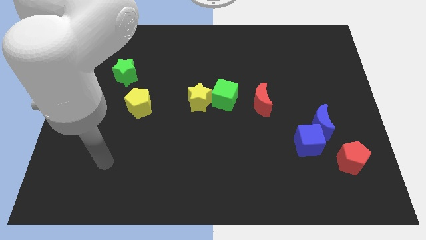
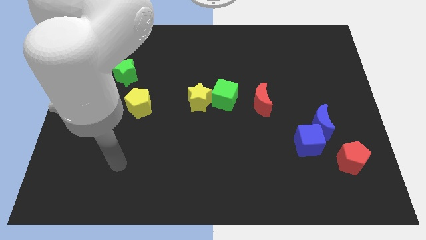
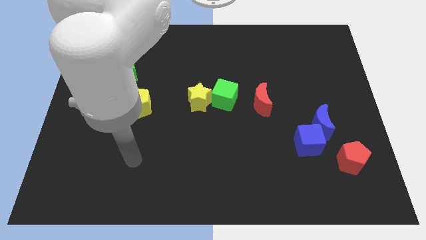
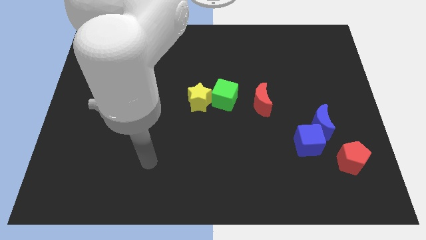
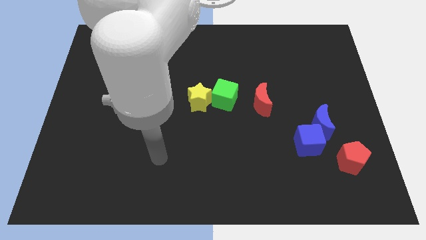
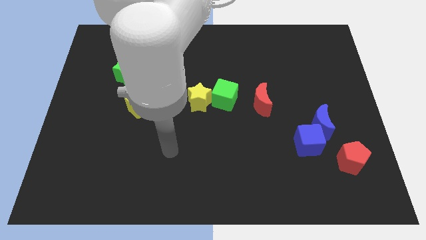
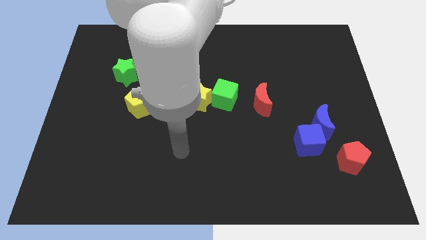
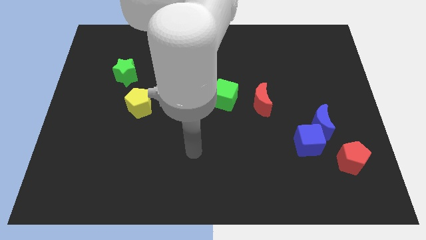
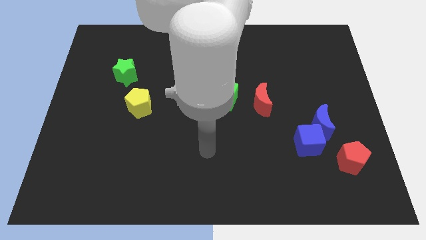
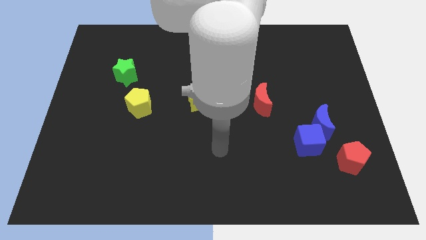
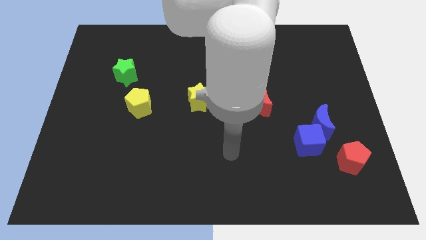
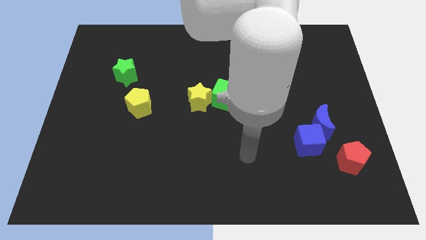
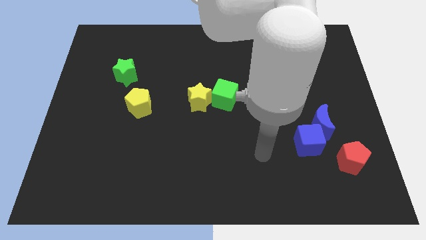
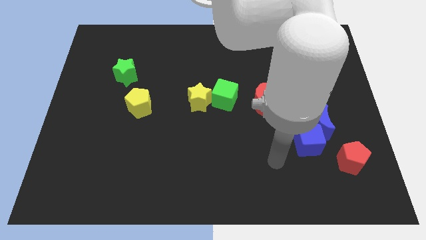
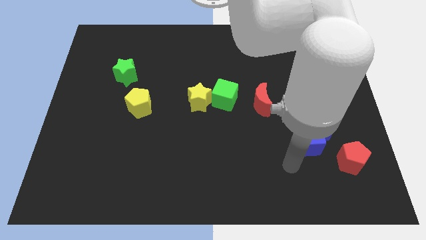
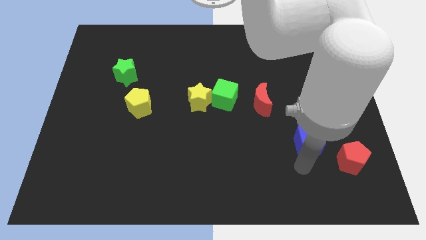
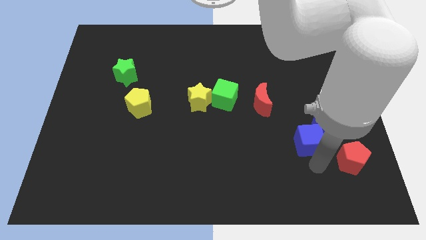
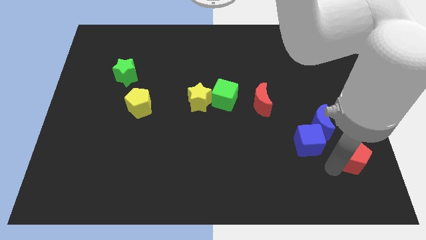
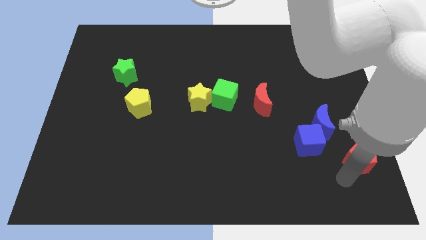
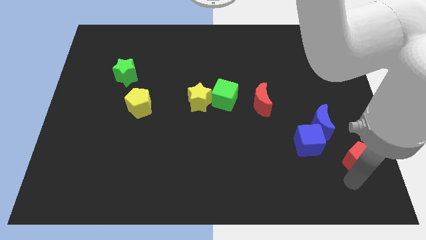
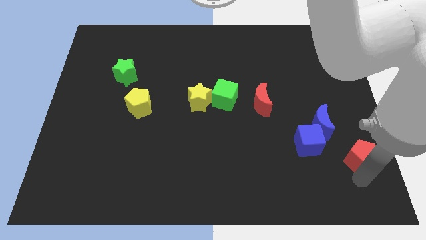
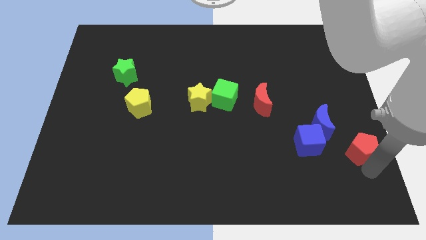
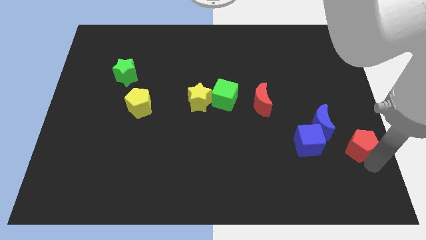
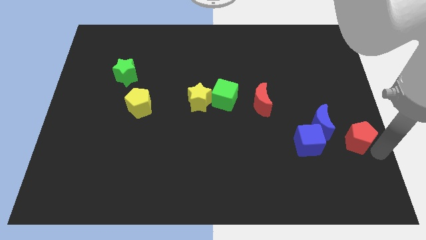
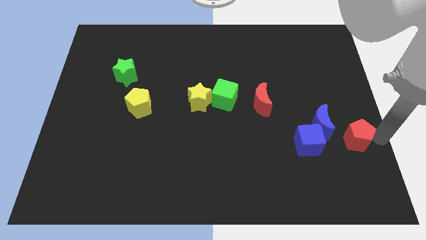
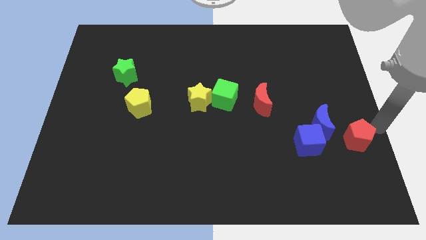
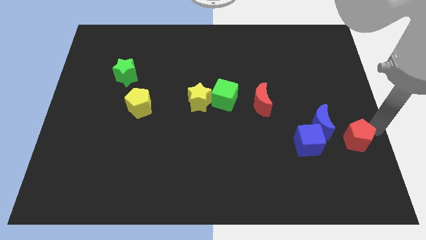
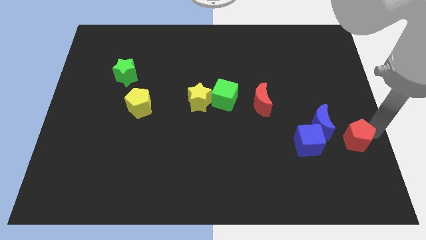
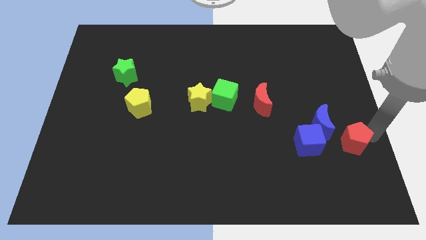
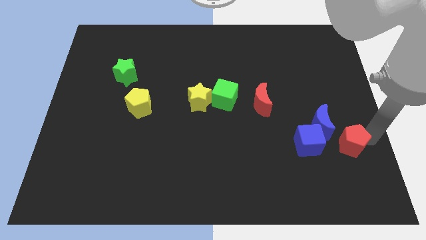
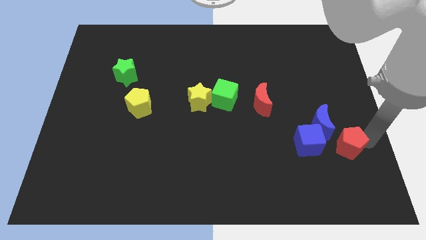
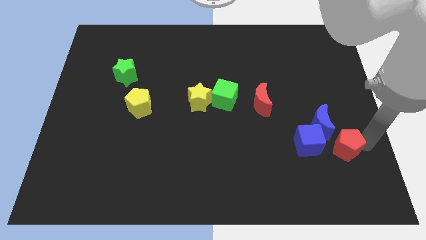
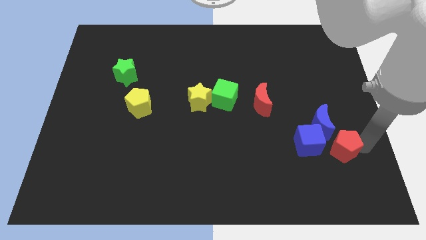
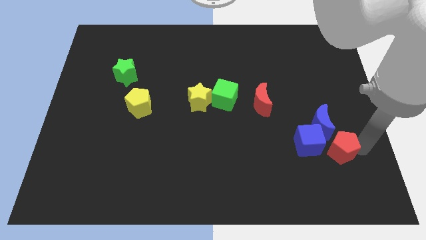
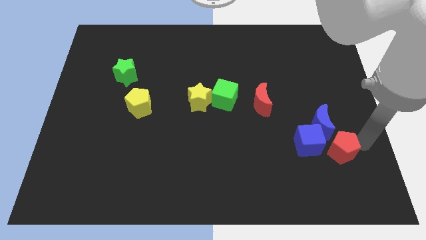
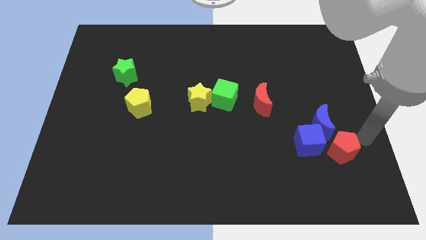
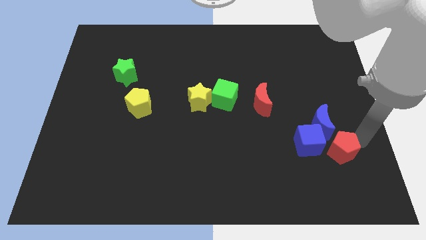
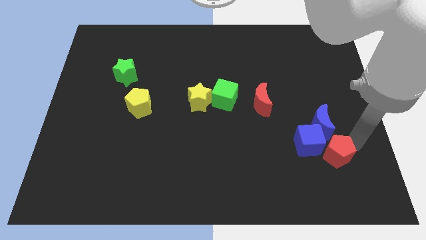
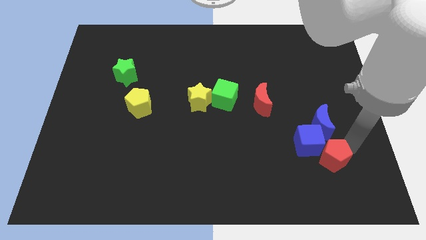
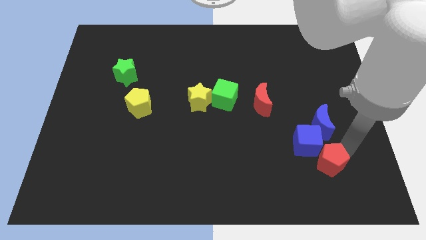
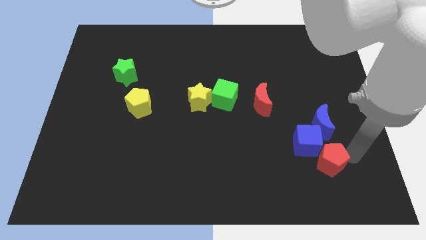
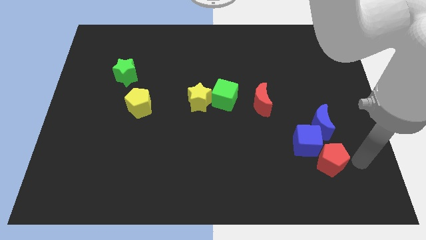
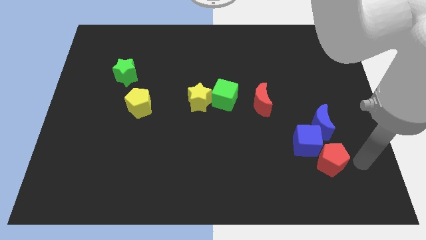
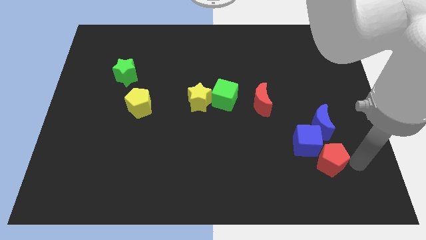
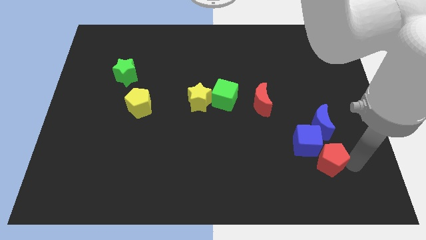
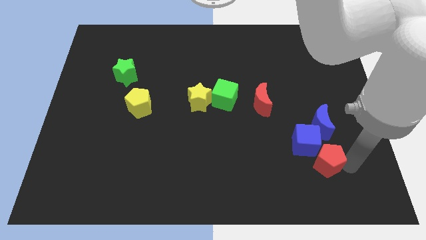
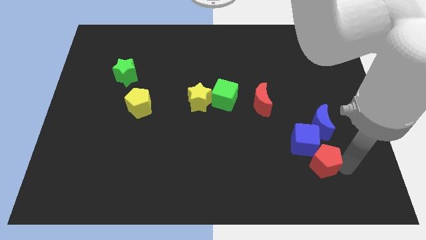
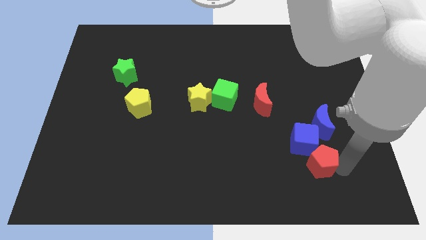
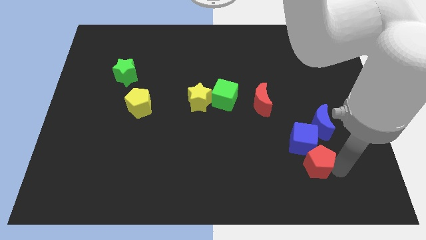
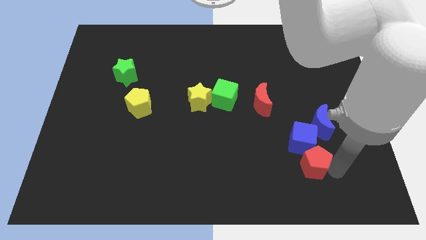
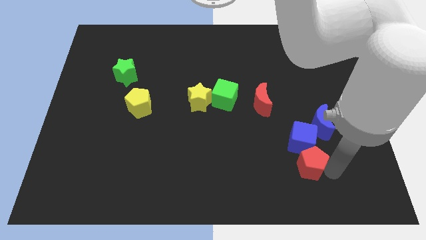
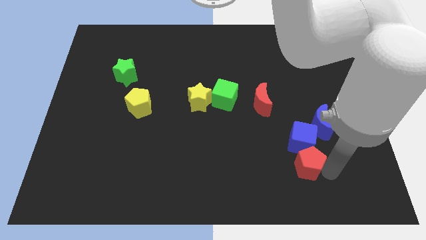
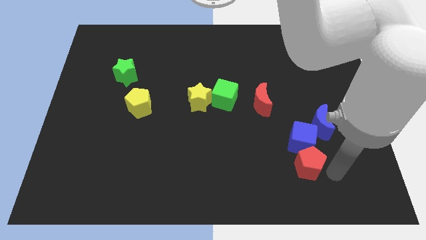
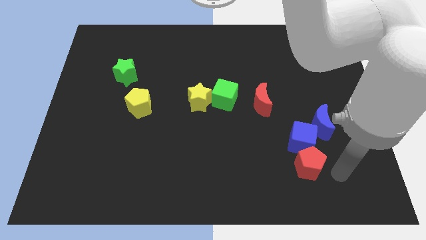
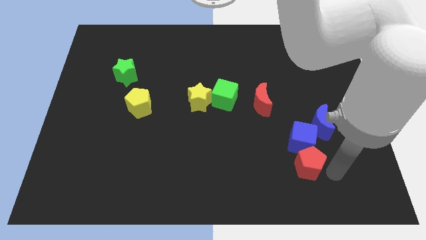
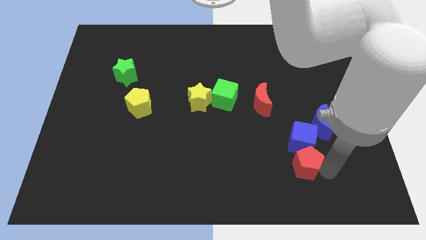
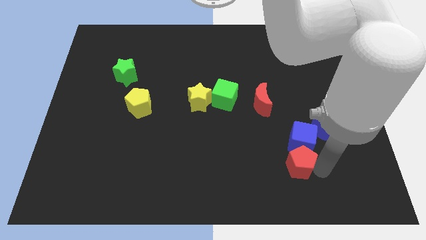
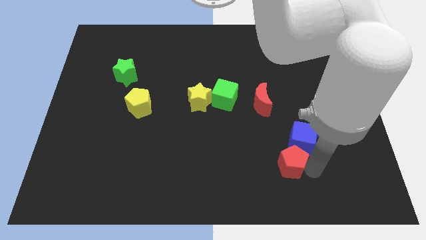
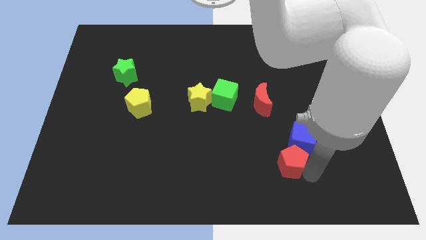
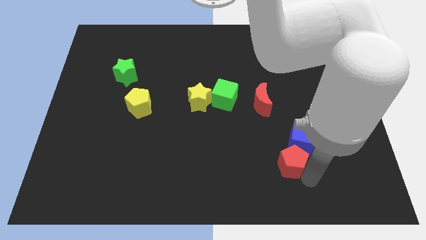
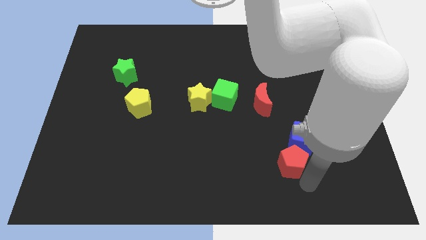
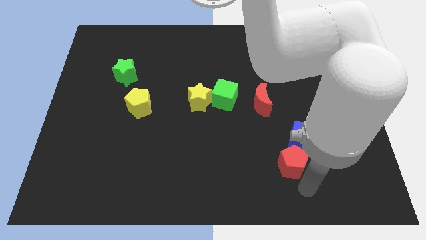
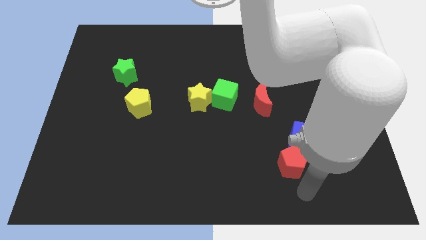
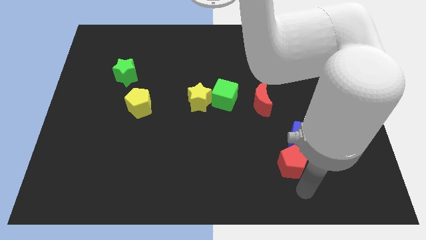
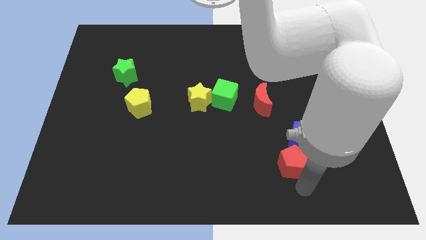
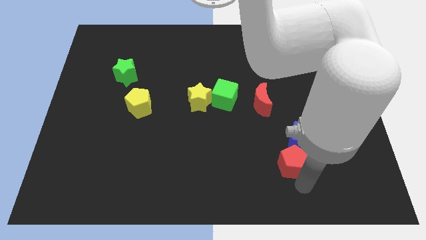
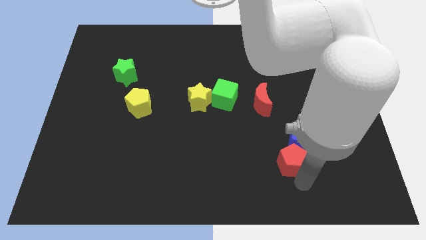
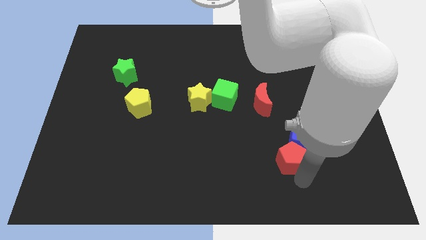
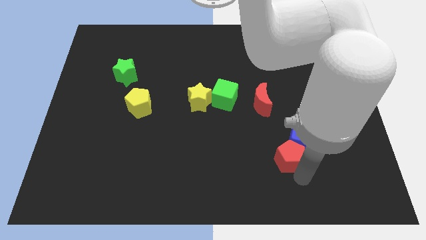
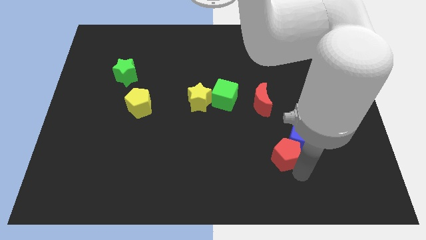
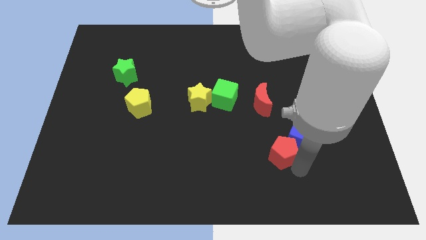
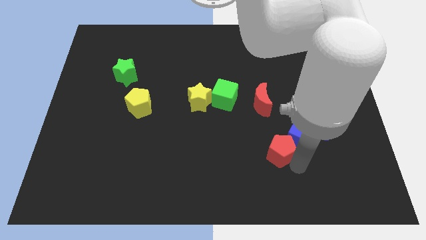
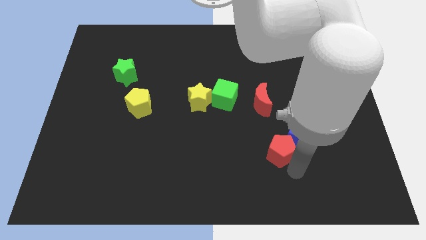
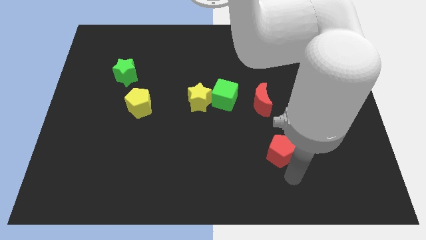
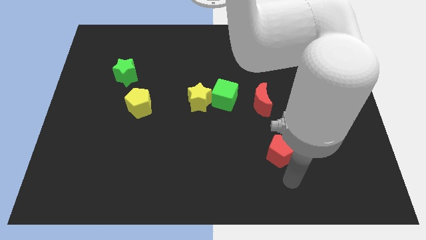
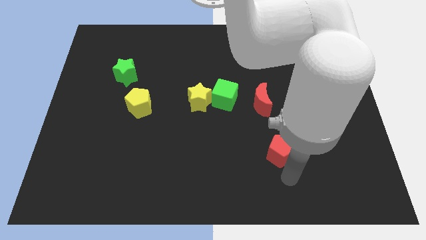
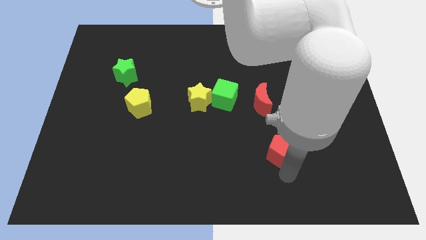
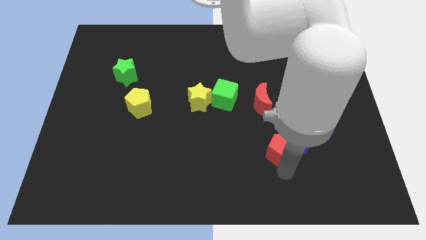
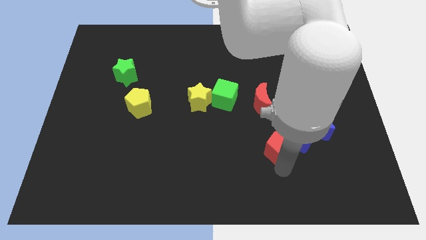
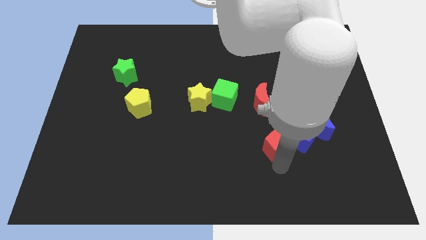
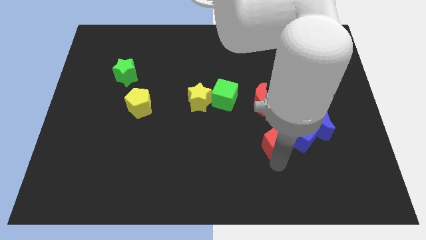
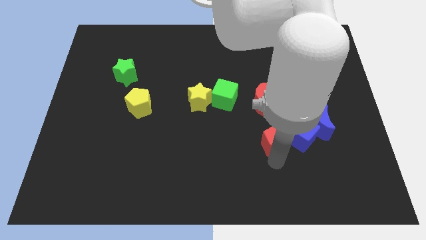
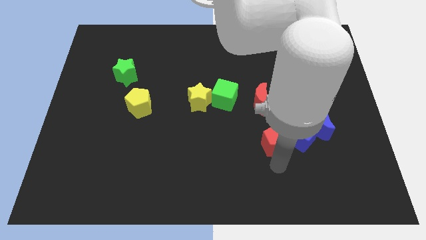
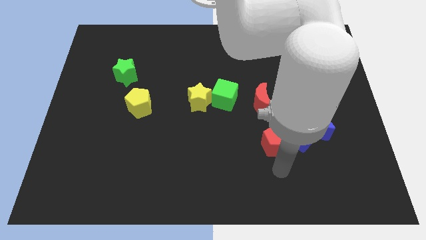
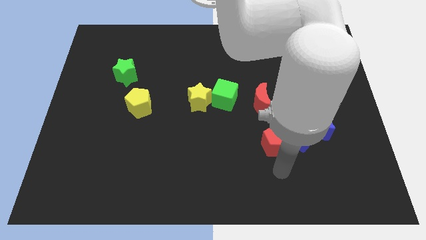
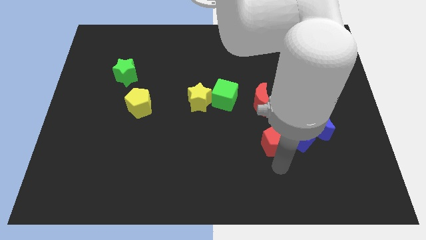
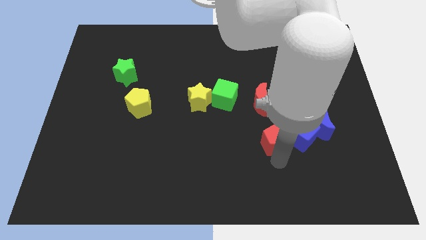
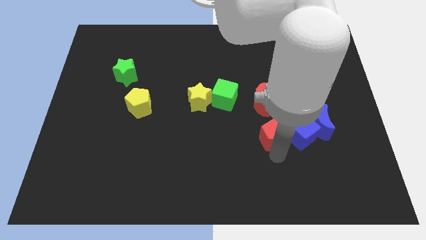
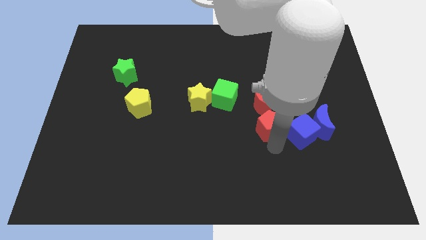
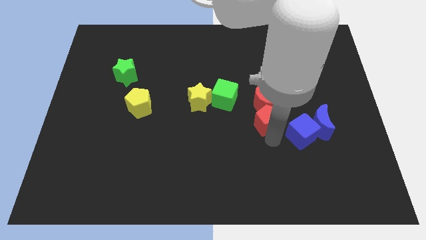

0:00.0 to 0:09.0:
slide the red pentagon next to the red moon
